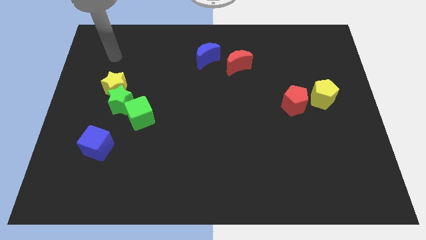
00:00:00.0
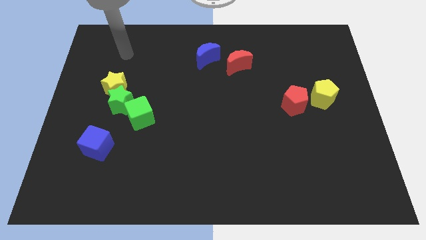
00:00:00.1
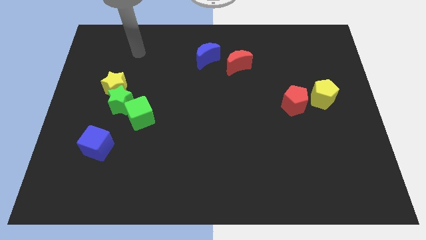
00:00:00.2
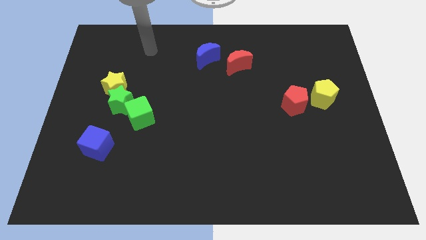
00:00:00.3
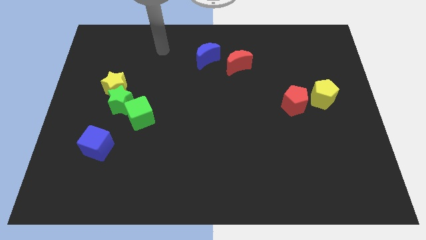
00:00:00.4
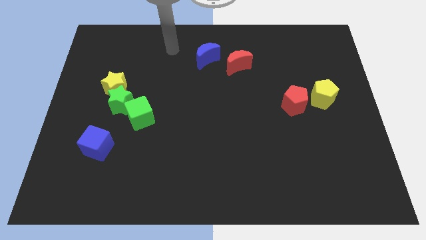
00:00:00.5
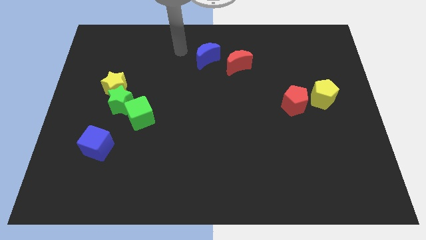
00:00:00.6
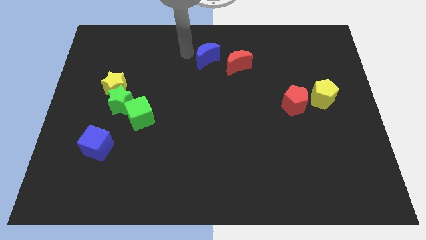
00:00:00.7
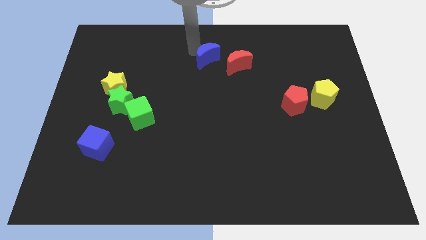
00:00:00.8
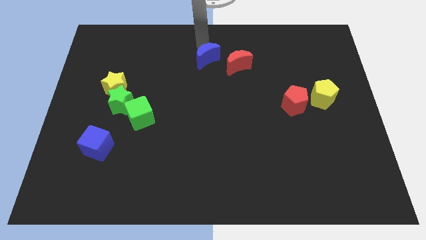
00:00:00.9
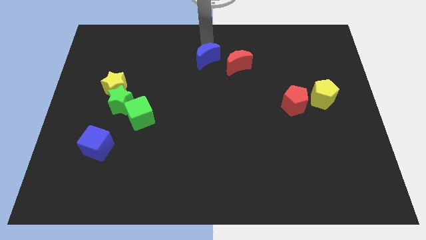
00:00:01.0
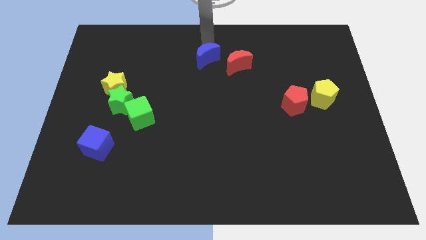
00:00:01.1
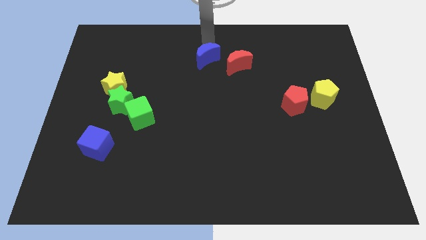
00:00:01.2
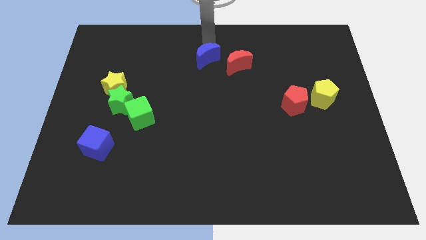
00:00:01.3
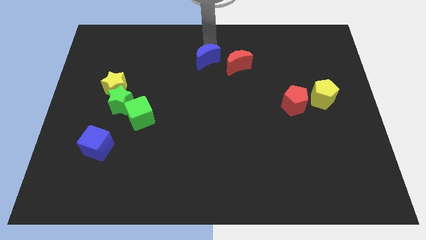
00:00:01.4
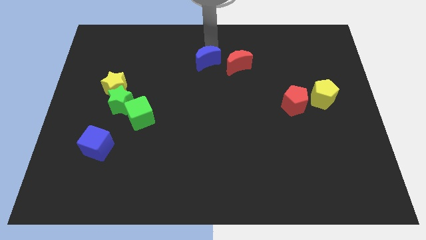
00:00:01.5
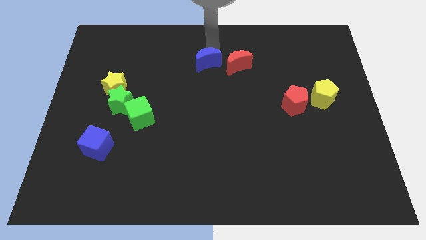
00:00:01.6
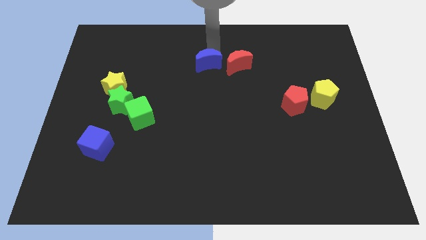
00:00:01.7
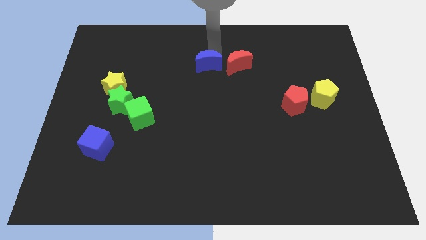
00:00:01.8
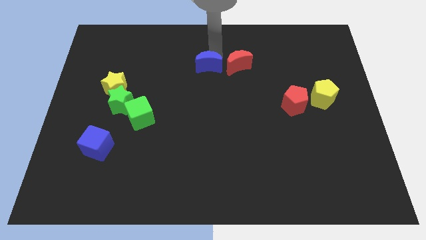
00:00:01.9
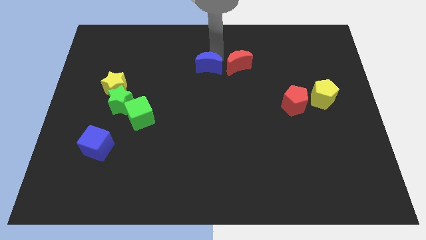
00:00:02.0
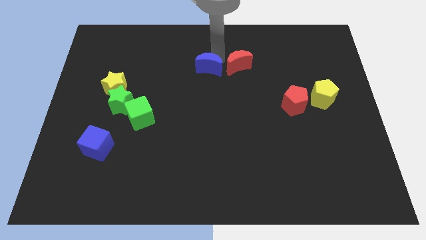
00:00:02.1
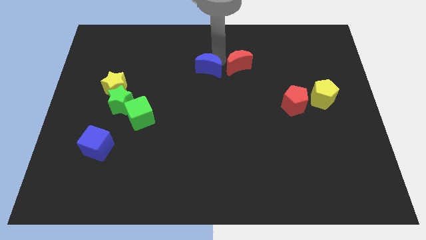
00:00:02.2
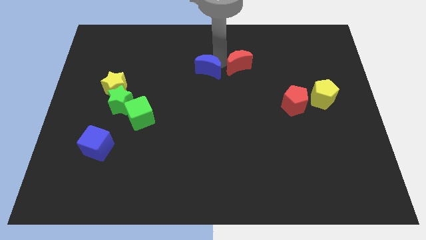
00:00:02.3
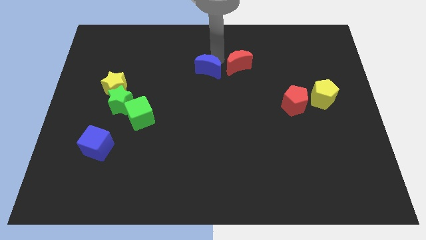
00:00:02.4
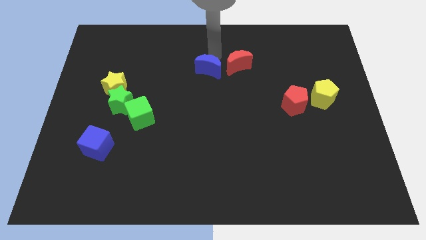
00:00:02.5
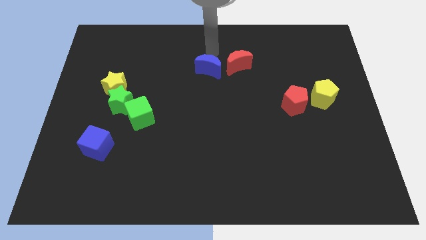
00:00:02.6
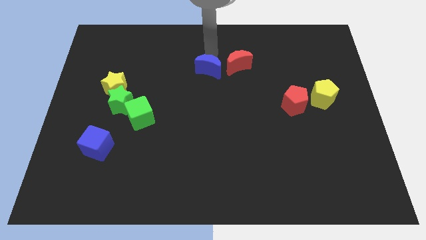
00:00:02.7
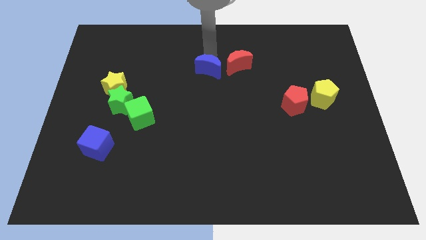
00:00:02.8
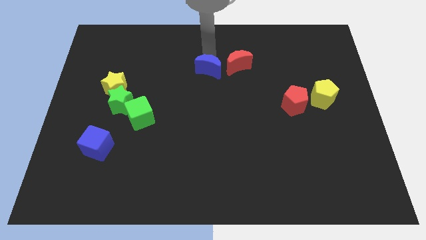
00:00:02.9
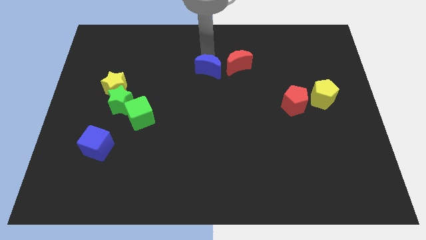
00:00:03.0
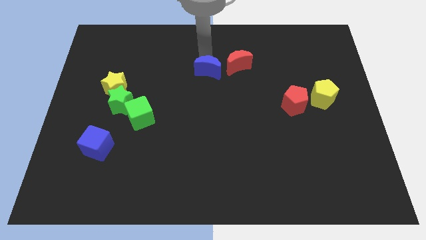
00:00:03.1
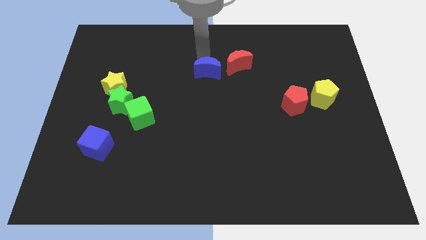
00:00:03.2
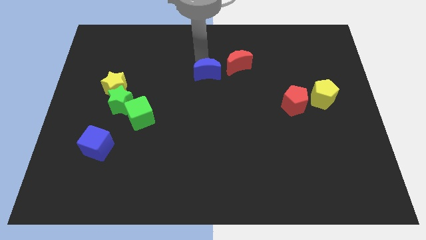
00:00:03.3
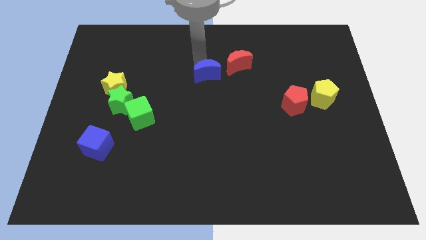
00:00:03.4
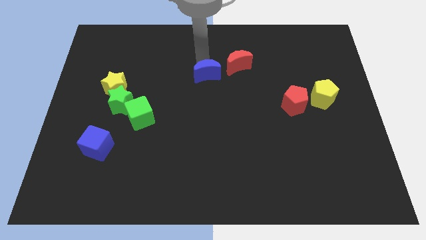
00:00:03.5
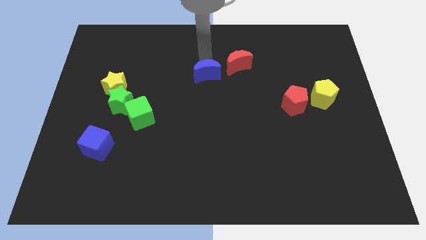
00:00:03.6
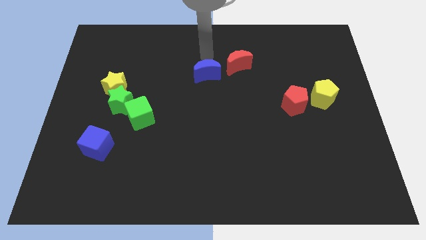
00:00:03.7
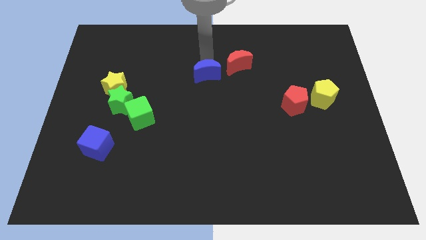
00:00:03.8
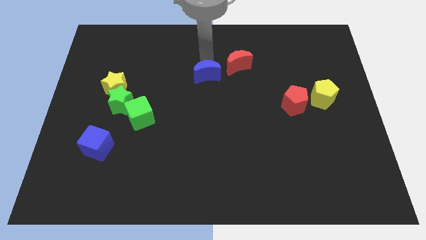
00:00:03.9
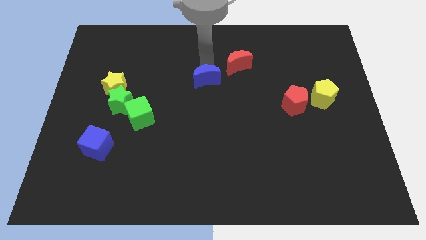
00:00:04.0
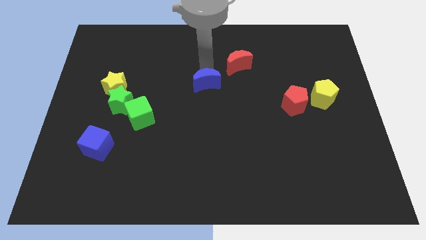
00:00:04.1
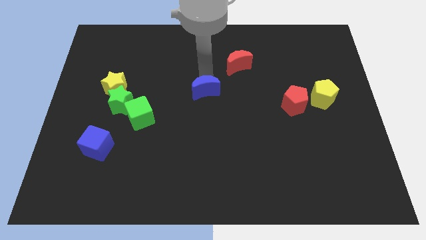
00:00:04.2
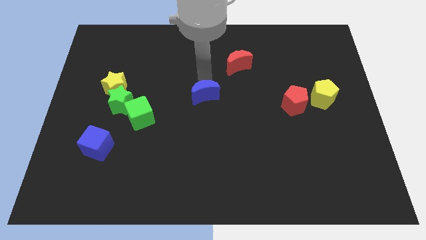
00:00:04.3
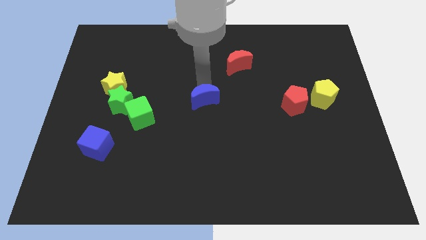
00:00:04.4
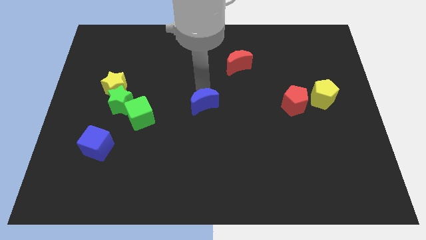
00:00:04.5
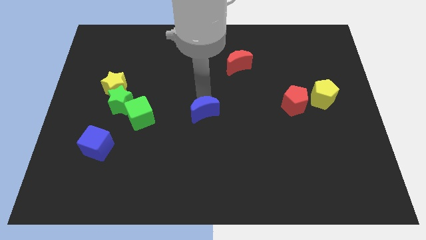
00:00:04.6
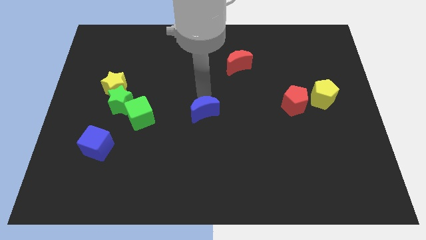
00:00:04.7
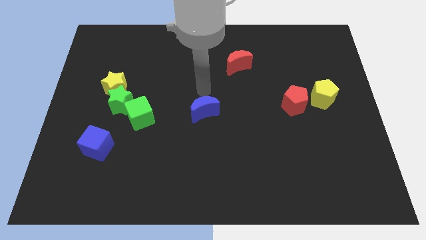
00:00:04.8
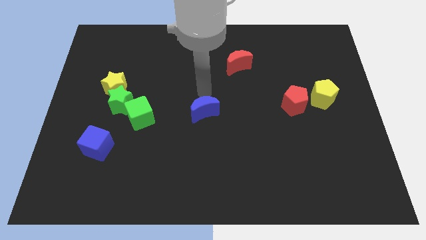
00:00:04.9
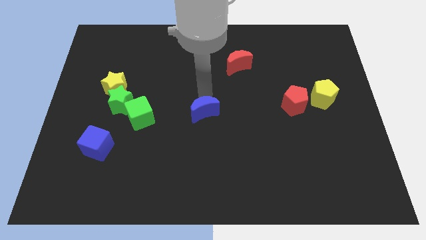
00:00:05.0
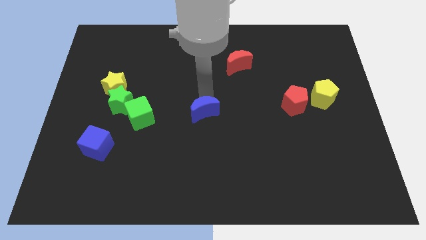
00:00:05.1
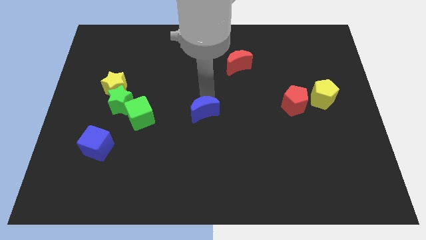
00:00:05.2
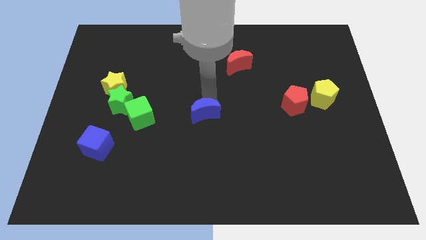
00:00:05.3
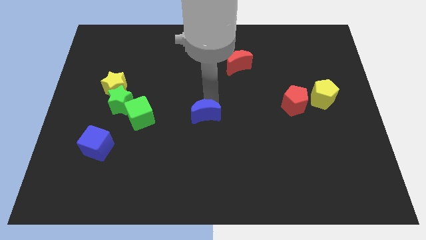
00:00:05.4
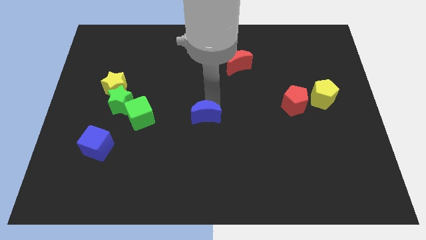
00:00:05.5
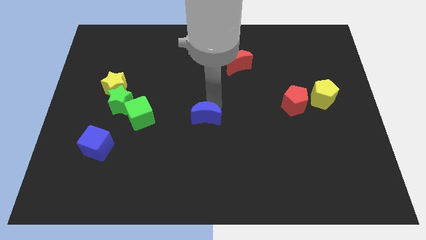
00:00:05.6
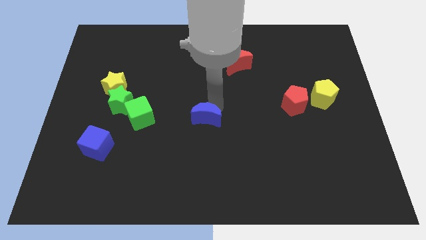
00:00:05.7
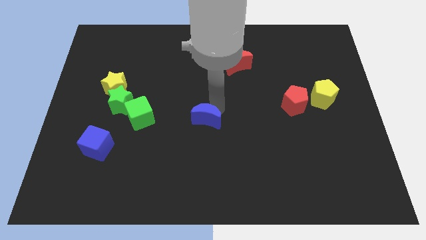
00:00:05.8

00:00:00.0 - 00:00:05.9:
slide the blue moon down

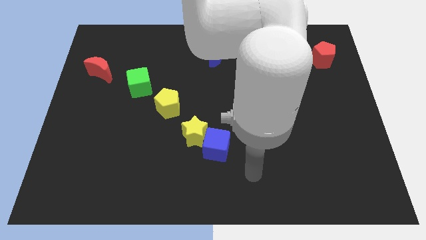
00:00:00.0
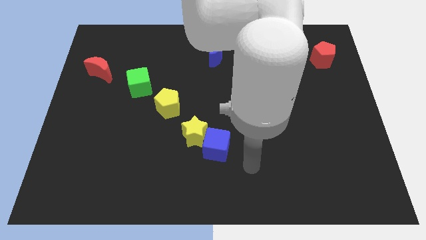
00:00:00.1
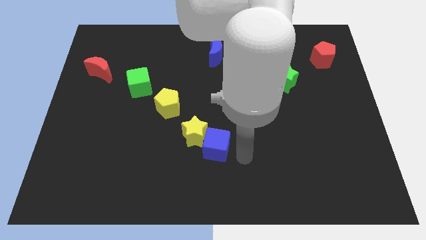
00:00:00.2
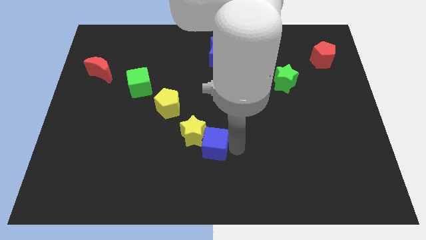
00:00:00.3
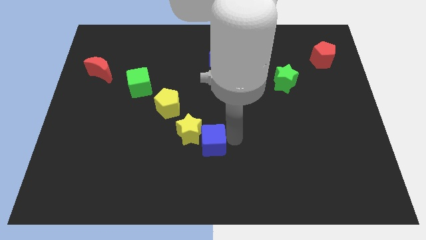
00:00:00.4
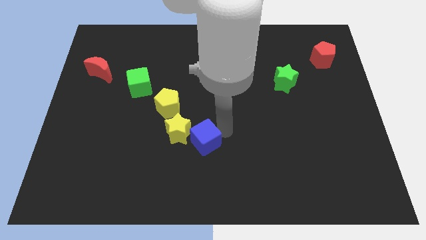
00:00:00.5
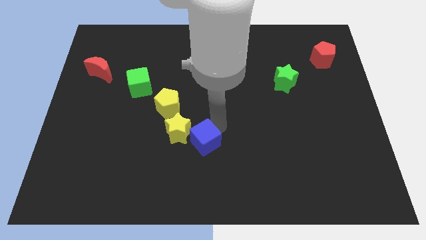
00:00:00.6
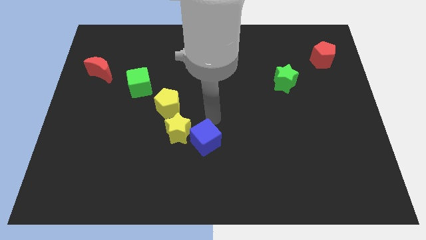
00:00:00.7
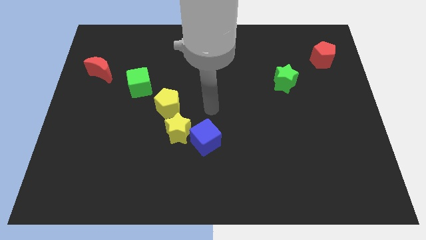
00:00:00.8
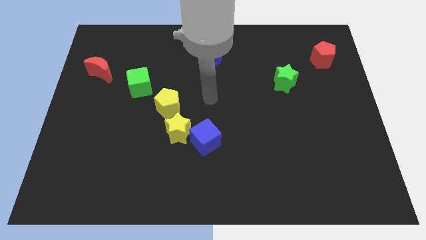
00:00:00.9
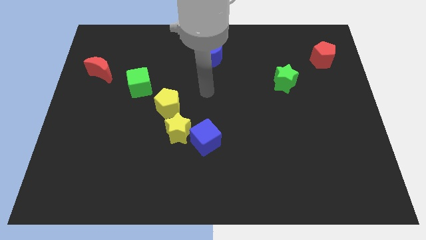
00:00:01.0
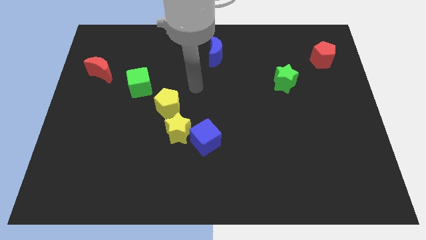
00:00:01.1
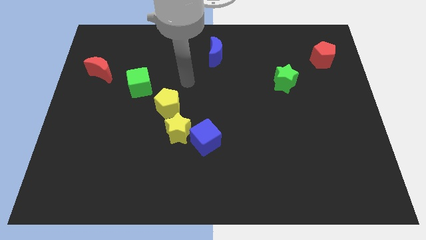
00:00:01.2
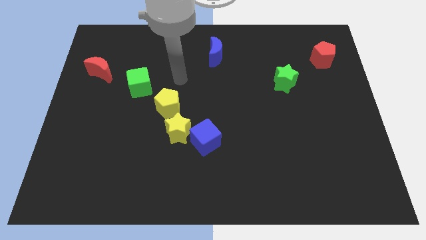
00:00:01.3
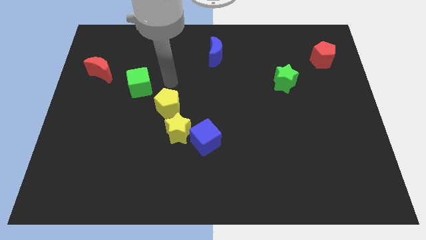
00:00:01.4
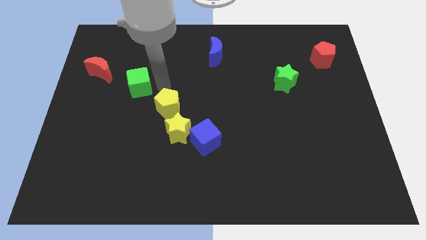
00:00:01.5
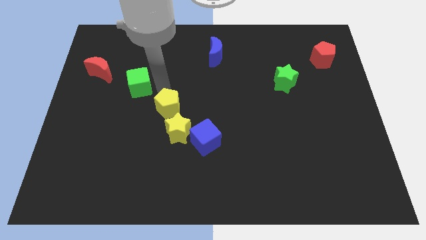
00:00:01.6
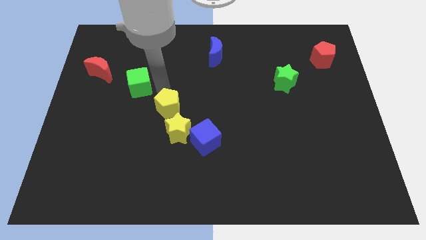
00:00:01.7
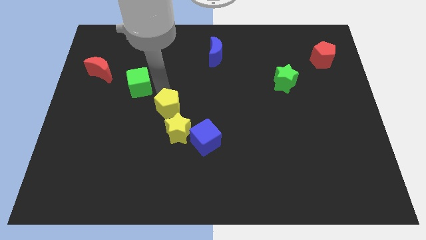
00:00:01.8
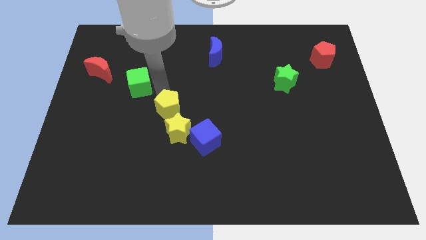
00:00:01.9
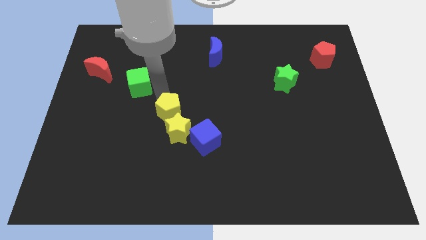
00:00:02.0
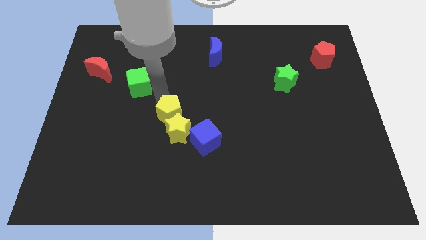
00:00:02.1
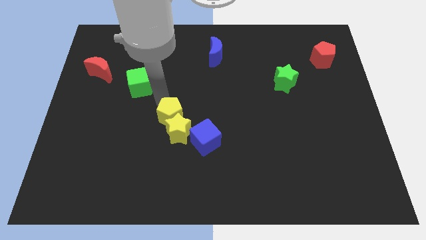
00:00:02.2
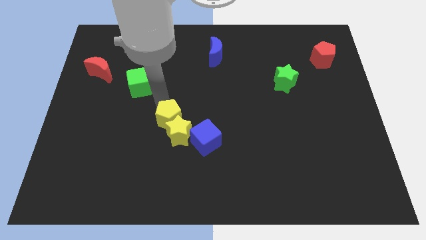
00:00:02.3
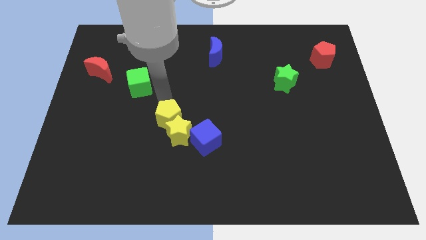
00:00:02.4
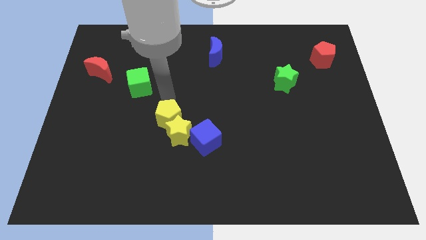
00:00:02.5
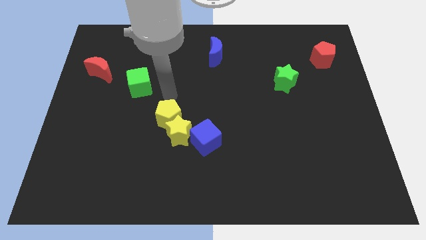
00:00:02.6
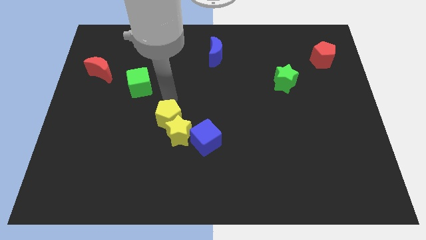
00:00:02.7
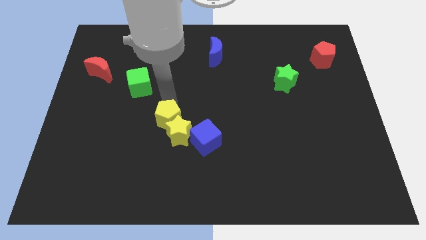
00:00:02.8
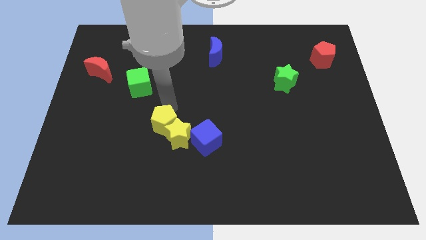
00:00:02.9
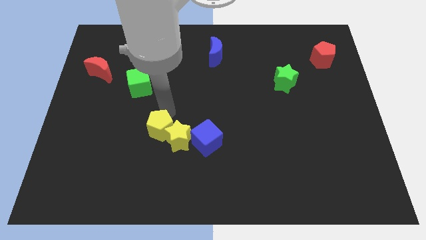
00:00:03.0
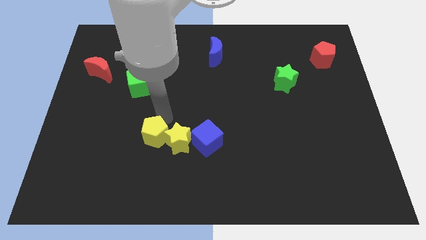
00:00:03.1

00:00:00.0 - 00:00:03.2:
push the yellow pentagon a little bit down
